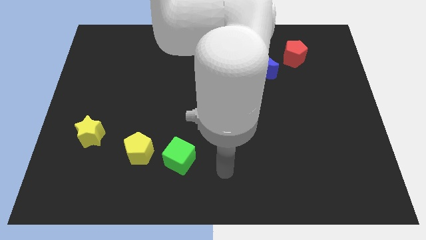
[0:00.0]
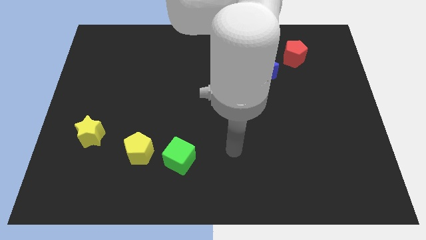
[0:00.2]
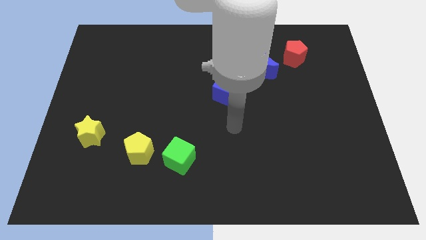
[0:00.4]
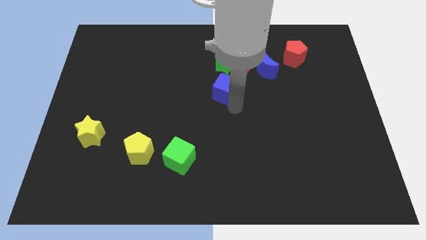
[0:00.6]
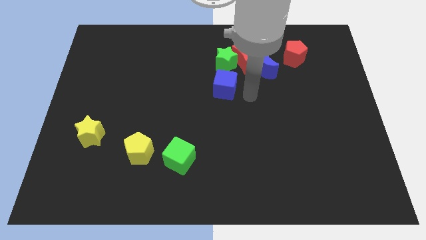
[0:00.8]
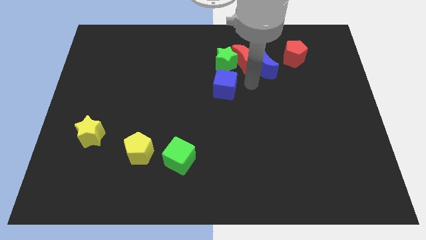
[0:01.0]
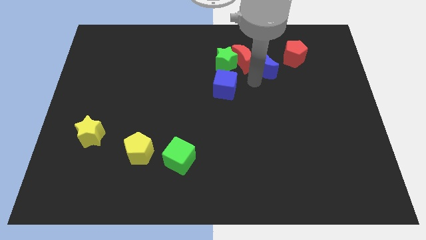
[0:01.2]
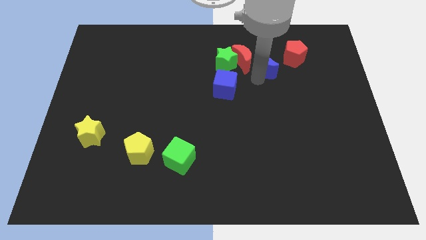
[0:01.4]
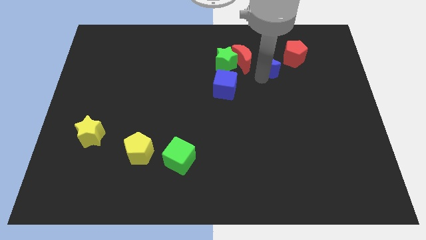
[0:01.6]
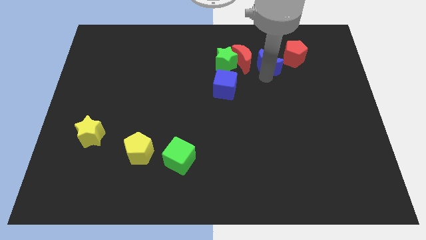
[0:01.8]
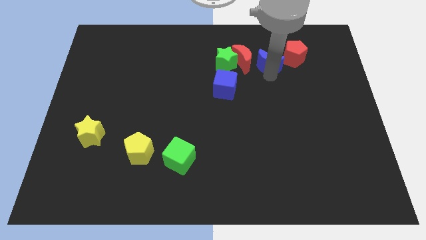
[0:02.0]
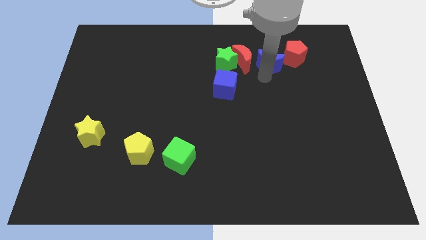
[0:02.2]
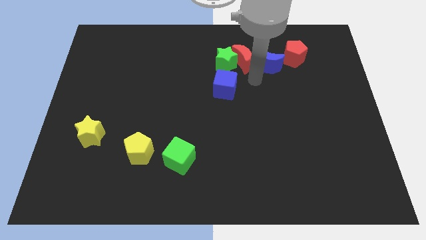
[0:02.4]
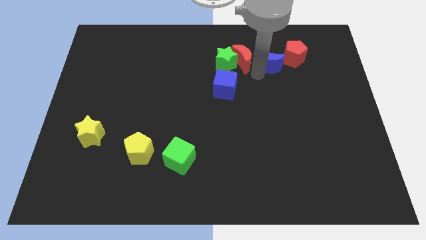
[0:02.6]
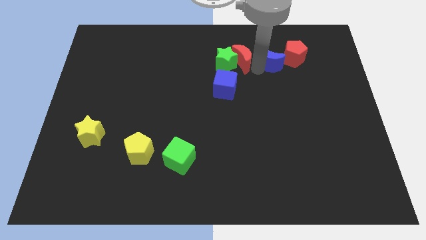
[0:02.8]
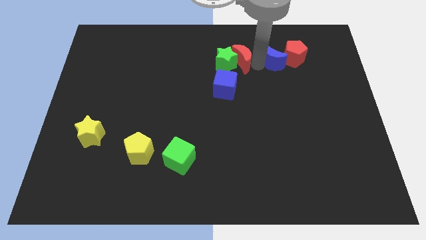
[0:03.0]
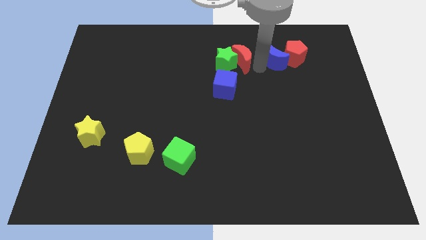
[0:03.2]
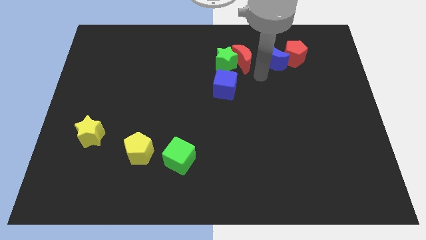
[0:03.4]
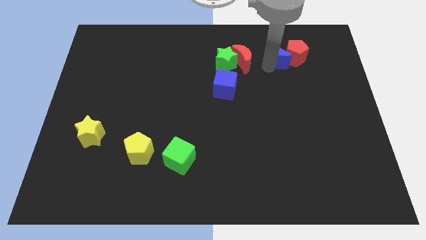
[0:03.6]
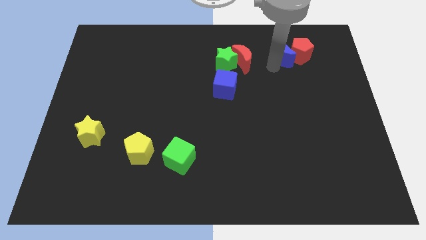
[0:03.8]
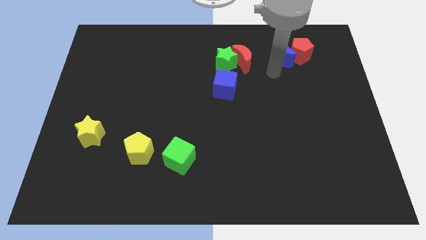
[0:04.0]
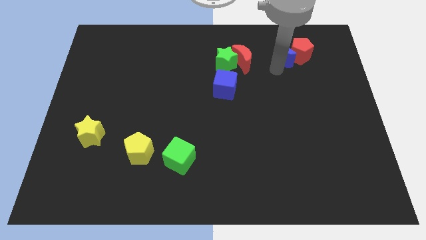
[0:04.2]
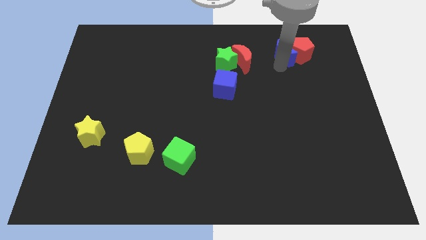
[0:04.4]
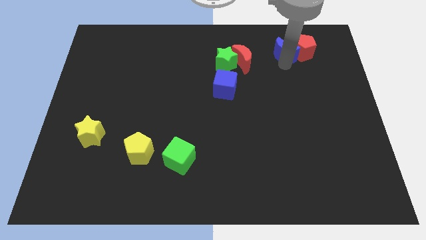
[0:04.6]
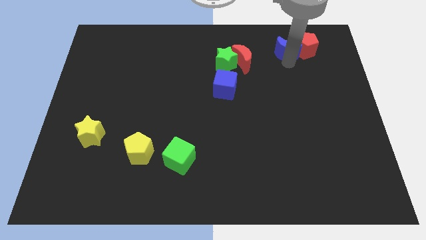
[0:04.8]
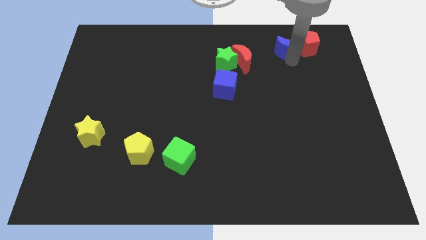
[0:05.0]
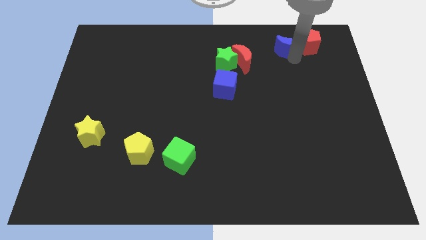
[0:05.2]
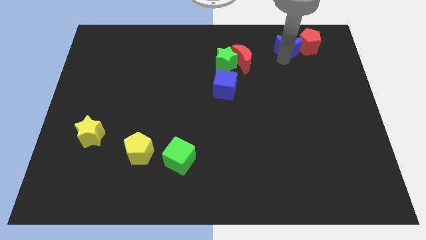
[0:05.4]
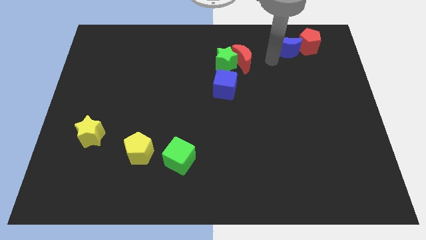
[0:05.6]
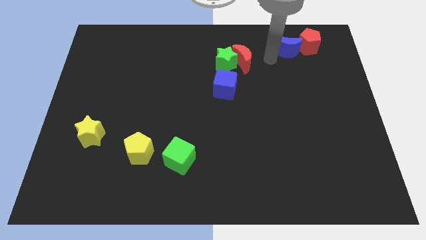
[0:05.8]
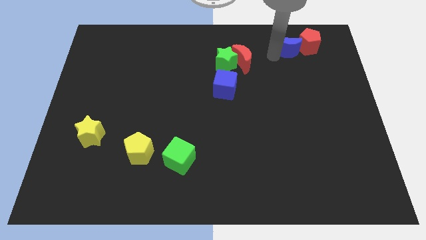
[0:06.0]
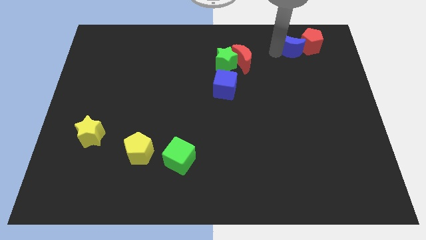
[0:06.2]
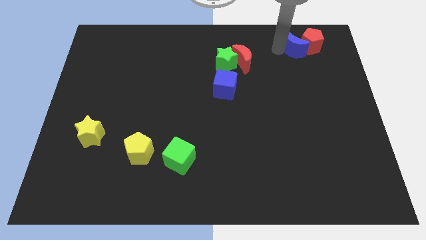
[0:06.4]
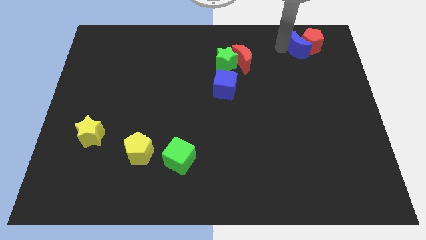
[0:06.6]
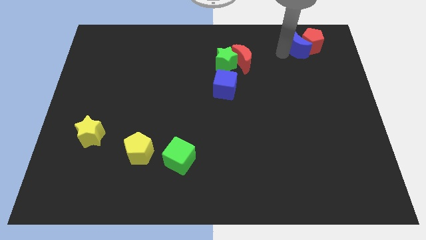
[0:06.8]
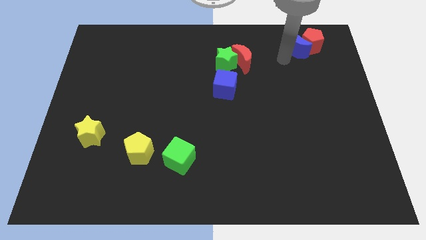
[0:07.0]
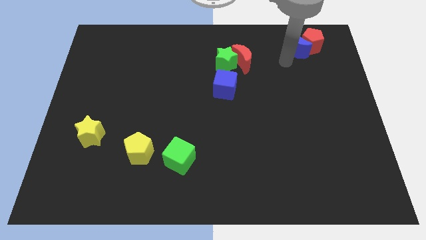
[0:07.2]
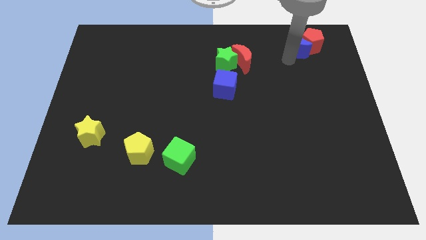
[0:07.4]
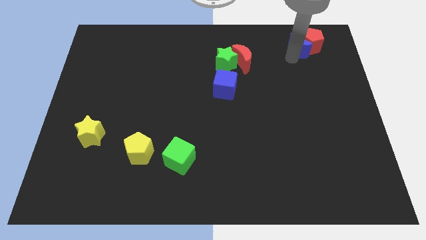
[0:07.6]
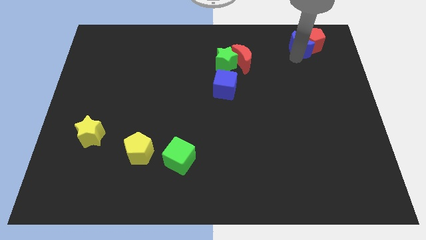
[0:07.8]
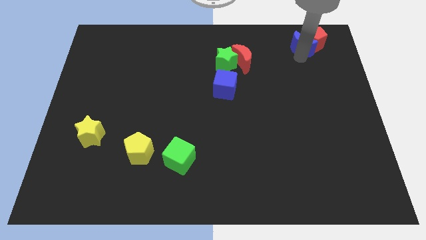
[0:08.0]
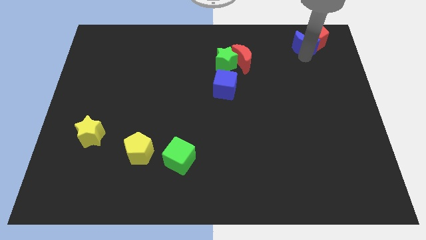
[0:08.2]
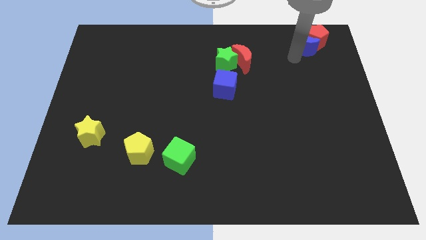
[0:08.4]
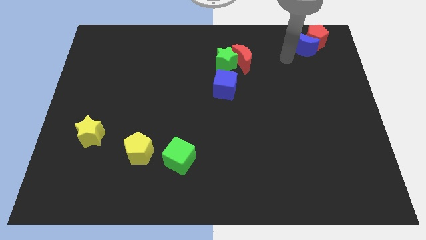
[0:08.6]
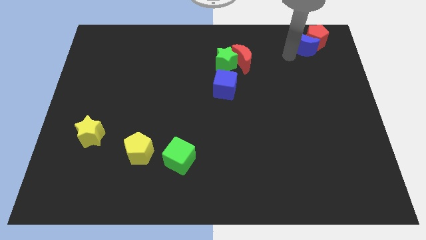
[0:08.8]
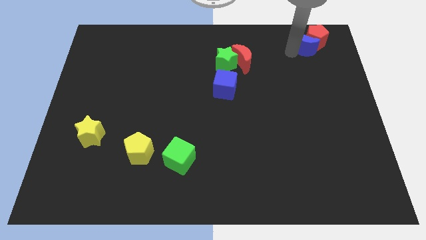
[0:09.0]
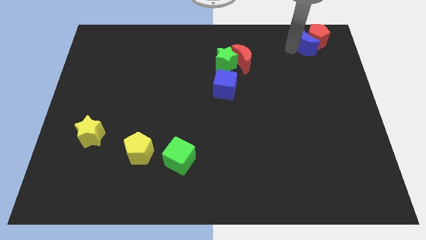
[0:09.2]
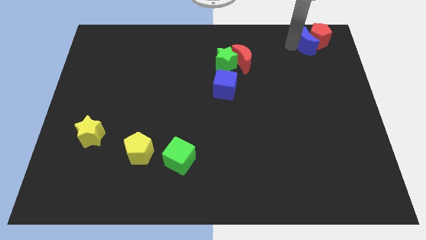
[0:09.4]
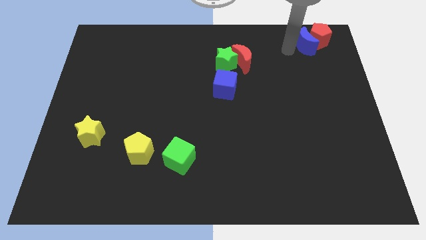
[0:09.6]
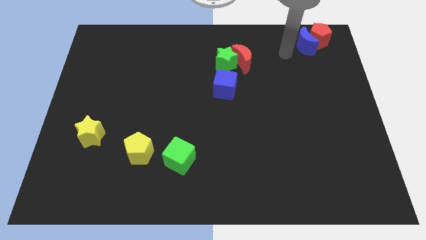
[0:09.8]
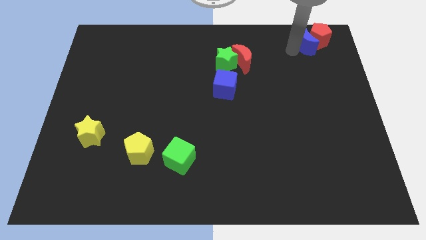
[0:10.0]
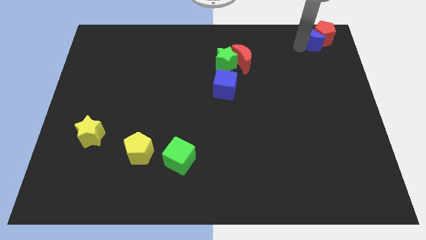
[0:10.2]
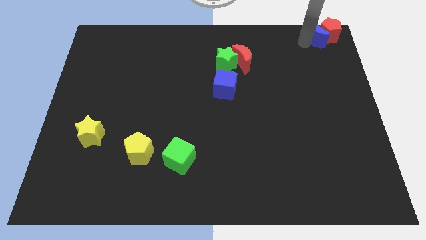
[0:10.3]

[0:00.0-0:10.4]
push the blue moon to the top right corner

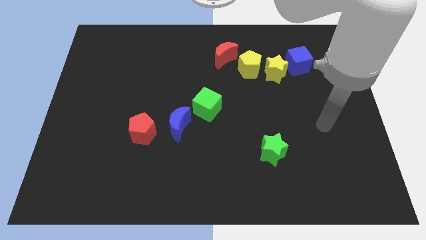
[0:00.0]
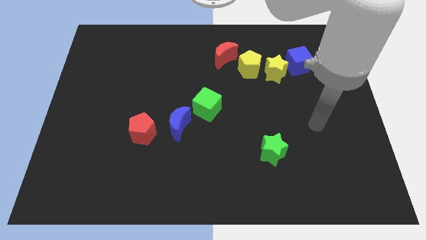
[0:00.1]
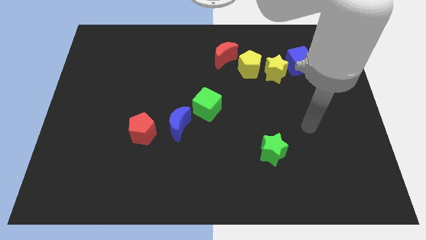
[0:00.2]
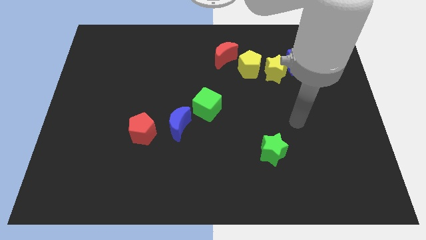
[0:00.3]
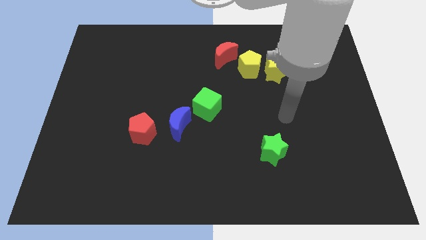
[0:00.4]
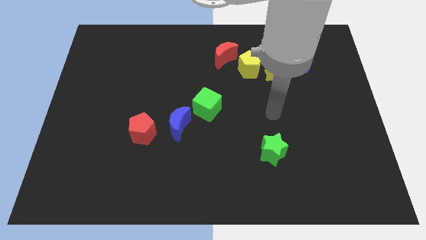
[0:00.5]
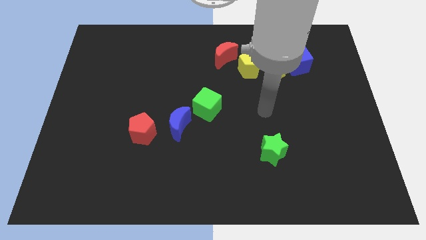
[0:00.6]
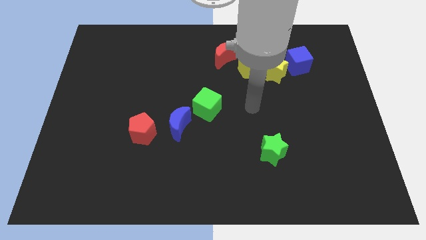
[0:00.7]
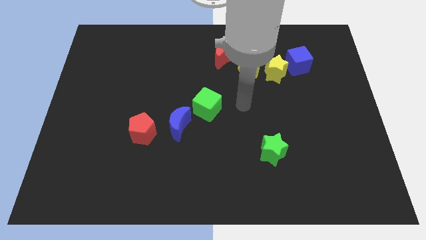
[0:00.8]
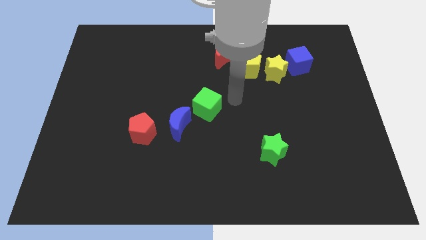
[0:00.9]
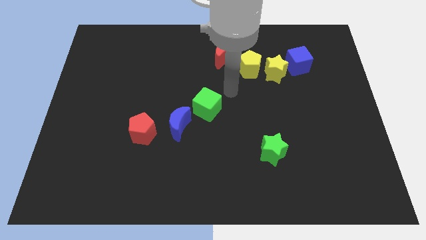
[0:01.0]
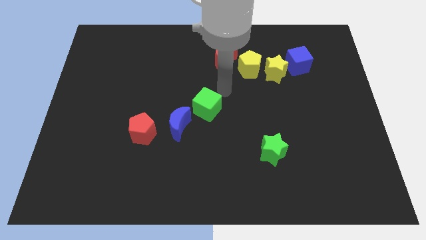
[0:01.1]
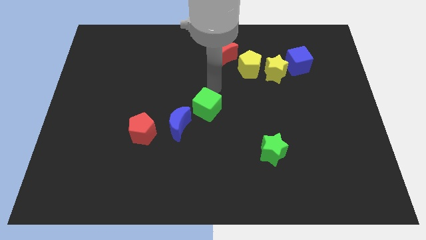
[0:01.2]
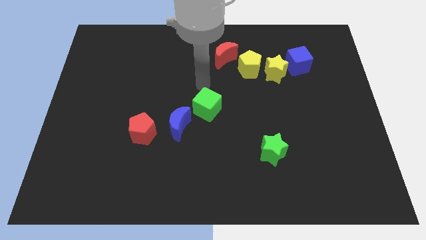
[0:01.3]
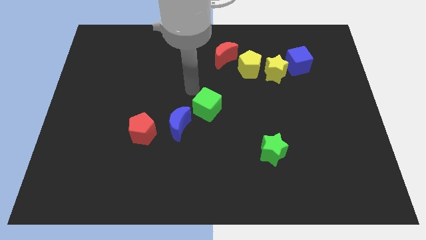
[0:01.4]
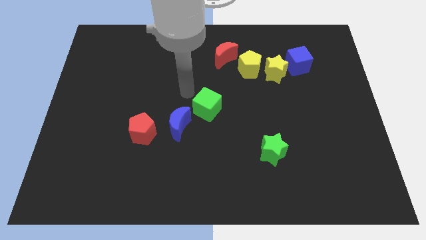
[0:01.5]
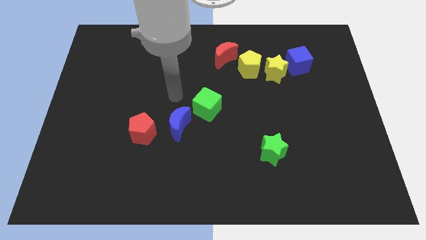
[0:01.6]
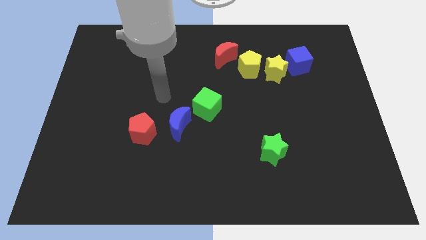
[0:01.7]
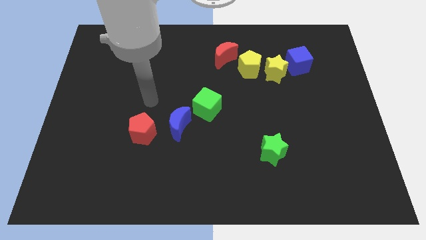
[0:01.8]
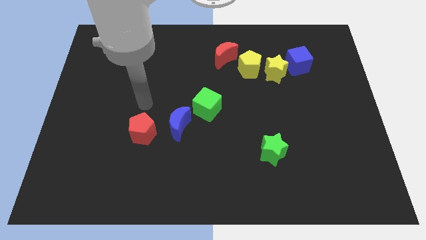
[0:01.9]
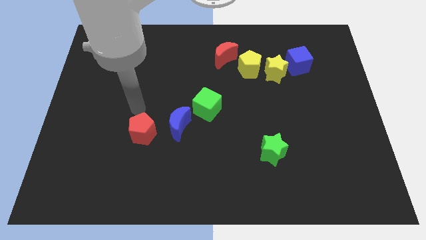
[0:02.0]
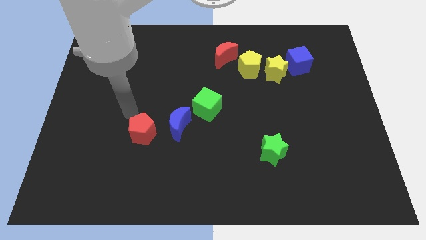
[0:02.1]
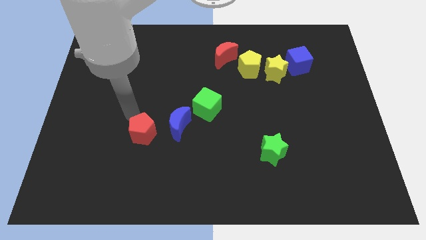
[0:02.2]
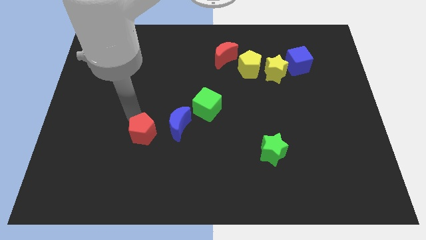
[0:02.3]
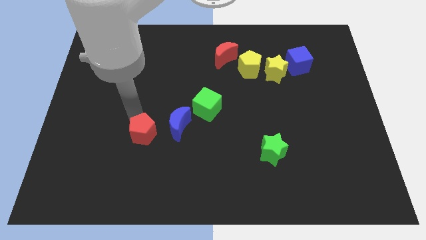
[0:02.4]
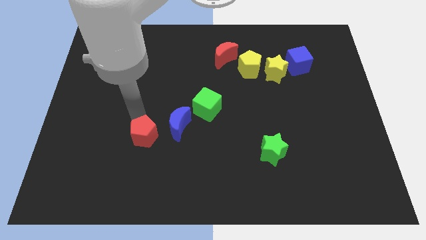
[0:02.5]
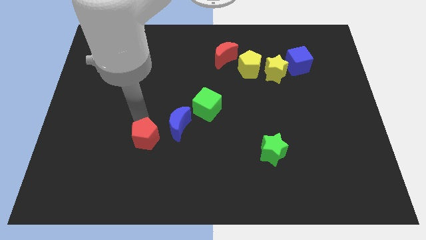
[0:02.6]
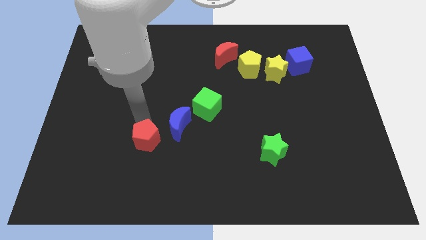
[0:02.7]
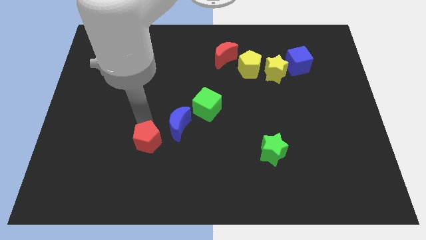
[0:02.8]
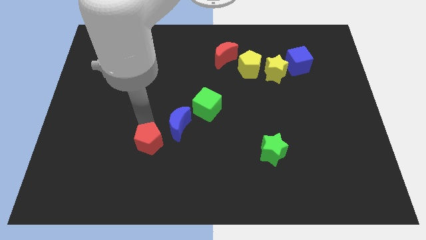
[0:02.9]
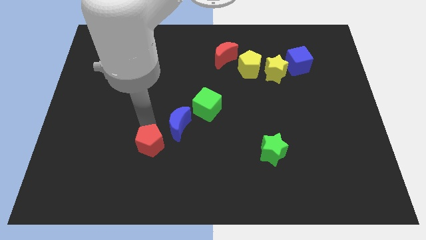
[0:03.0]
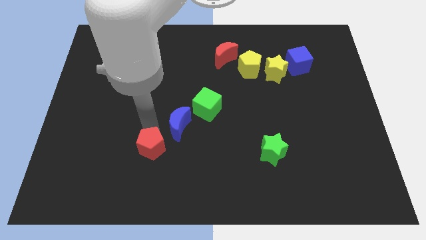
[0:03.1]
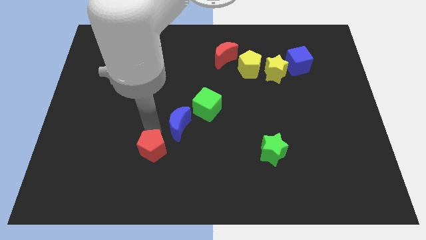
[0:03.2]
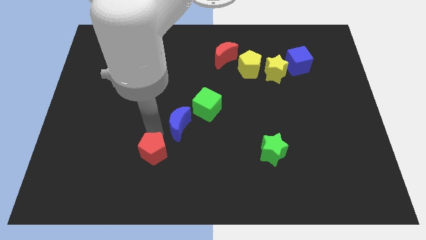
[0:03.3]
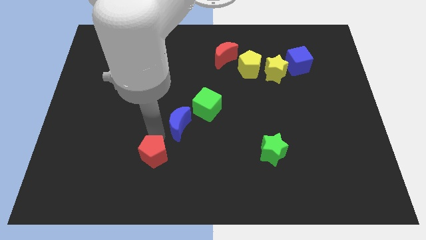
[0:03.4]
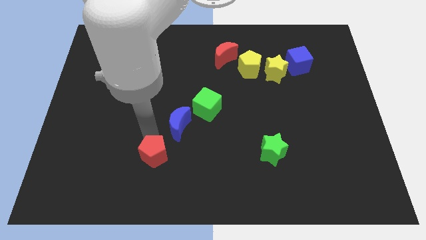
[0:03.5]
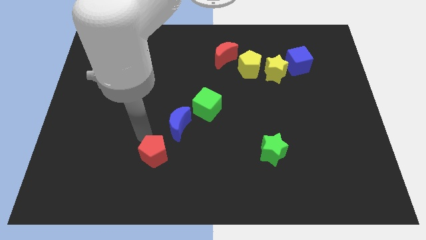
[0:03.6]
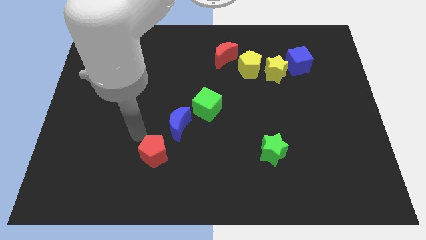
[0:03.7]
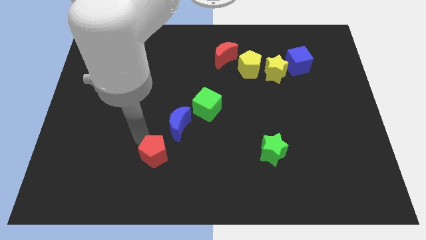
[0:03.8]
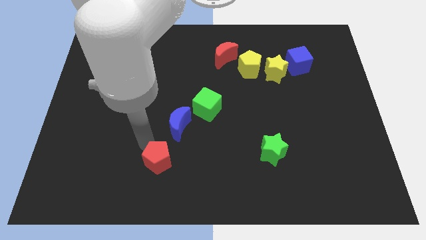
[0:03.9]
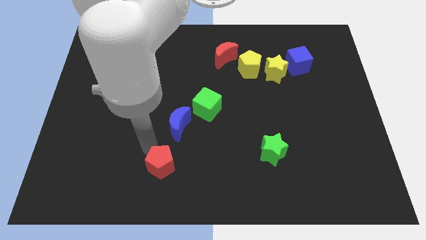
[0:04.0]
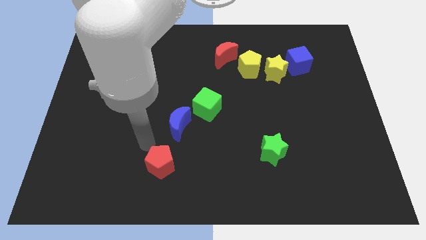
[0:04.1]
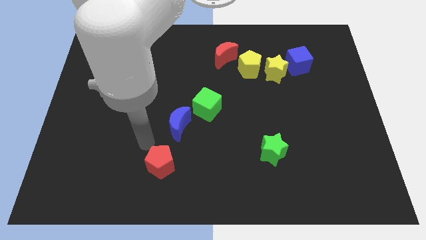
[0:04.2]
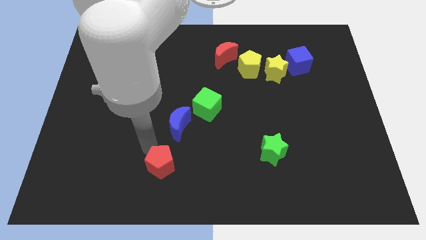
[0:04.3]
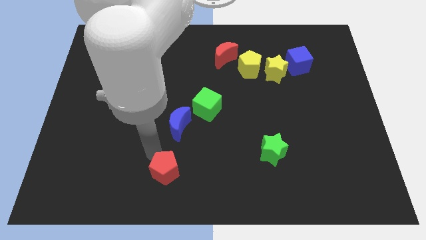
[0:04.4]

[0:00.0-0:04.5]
move the red pentagon to the bottom side
